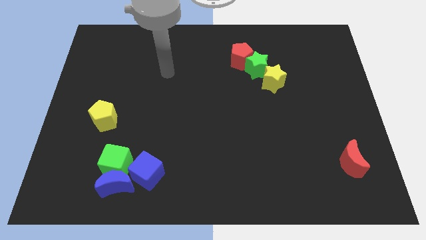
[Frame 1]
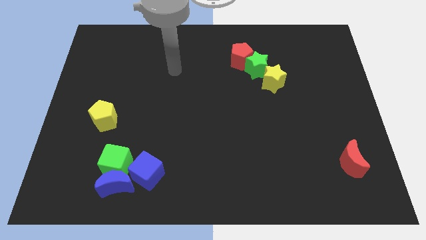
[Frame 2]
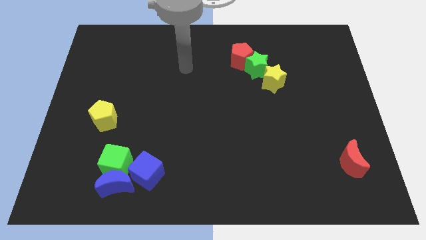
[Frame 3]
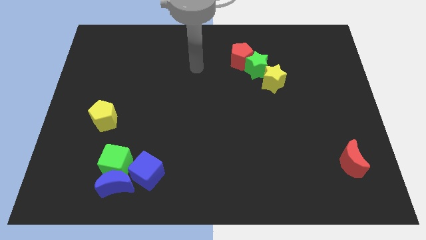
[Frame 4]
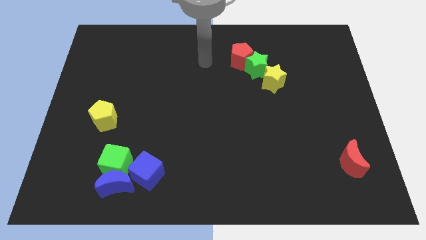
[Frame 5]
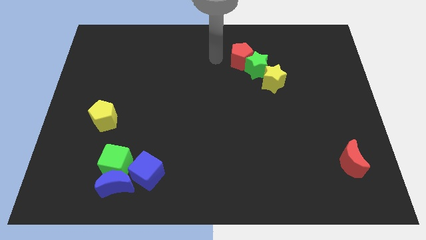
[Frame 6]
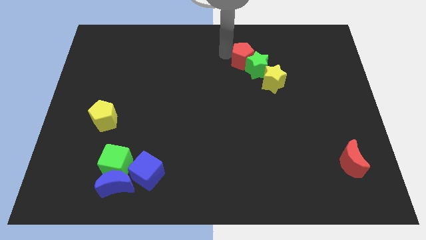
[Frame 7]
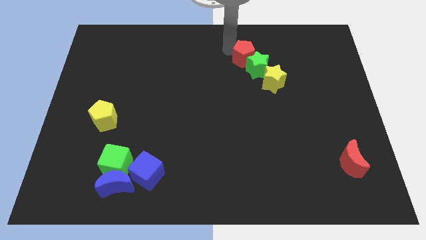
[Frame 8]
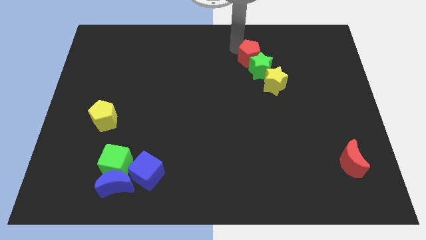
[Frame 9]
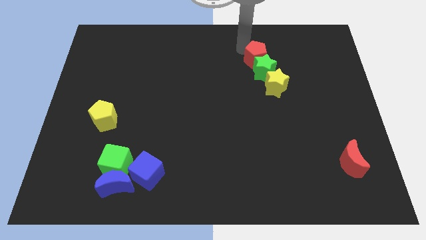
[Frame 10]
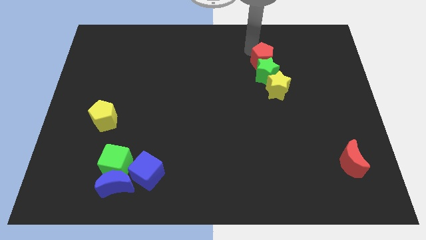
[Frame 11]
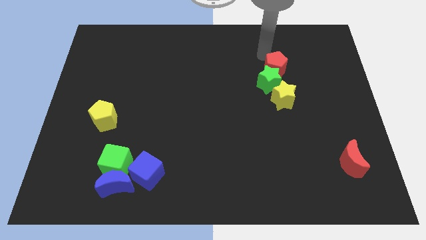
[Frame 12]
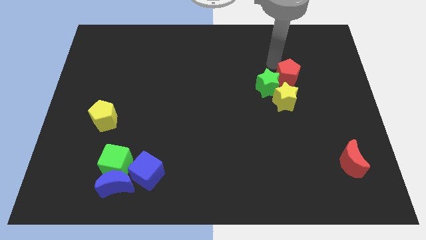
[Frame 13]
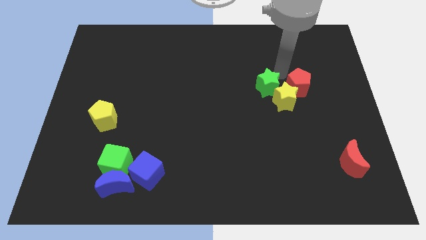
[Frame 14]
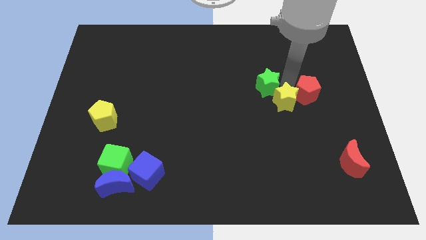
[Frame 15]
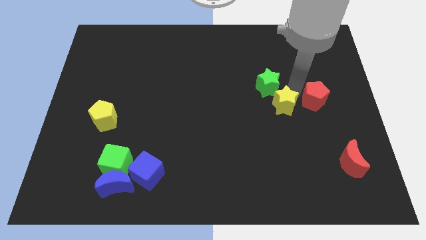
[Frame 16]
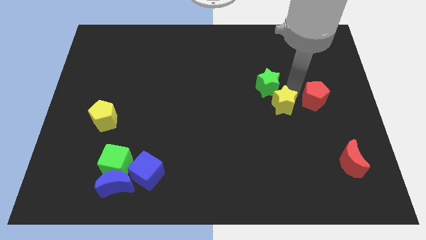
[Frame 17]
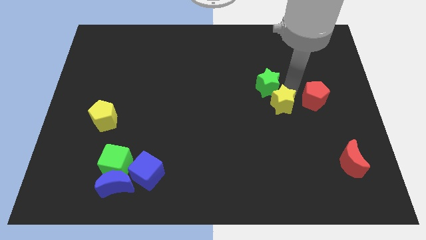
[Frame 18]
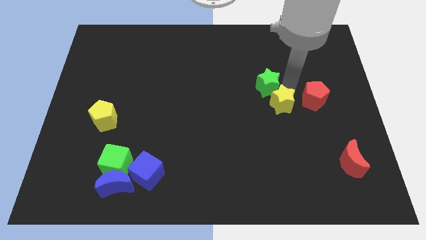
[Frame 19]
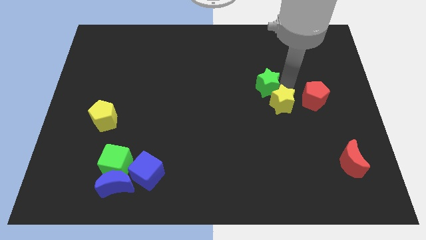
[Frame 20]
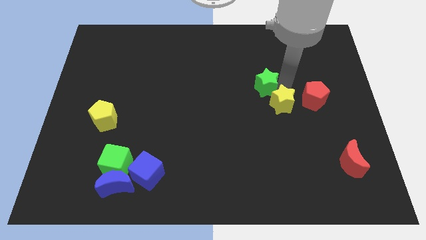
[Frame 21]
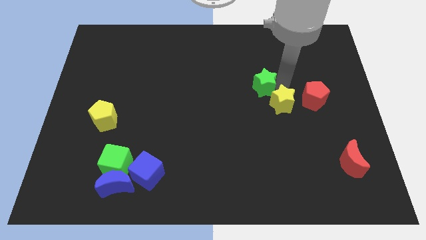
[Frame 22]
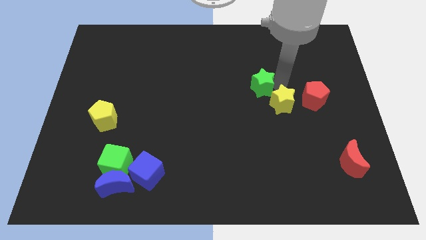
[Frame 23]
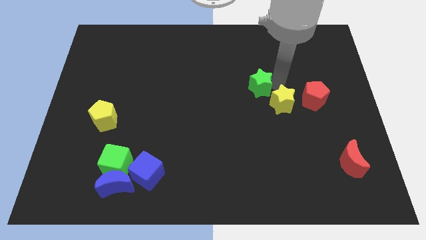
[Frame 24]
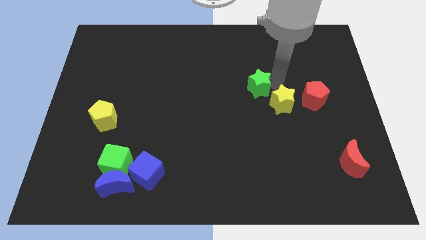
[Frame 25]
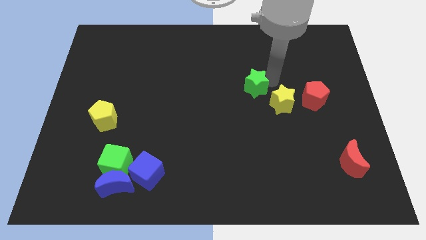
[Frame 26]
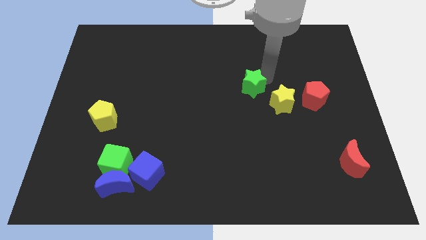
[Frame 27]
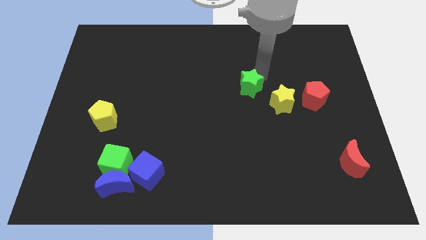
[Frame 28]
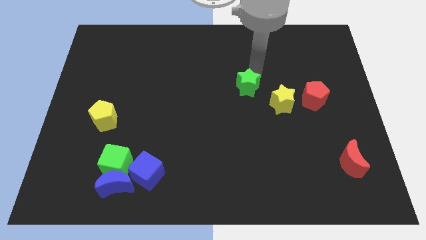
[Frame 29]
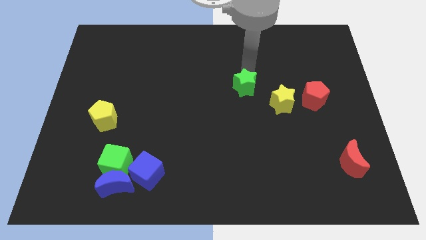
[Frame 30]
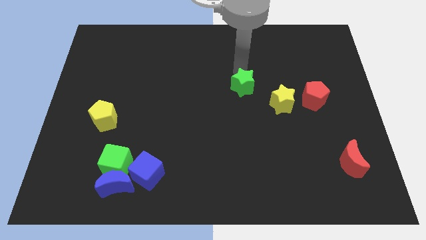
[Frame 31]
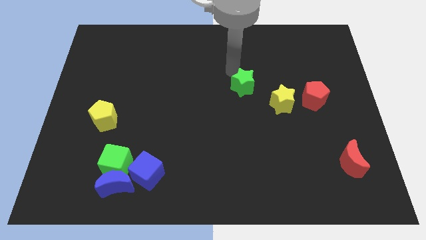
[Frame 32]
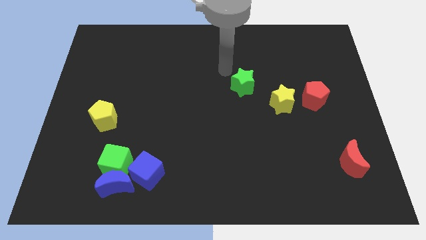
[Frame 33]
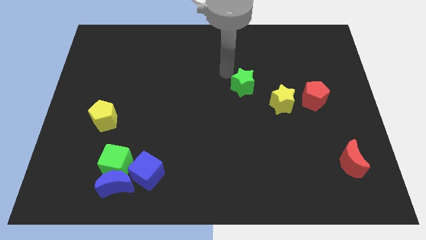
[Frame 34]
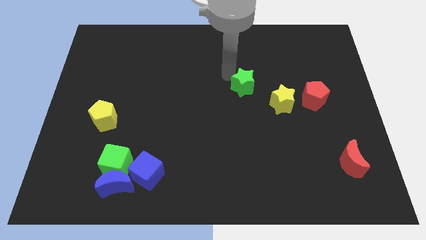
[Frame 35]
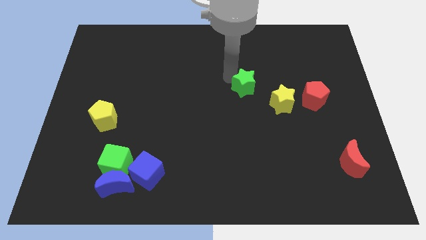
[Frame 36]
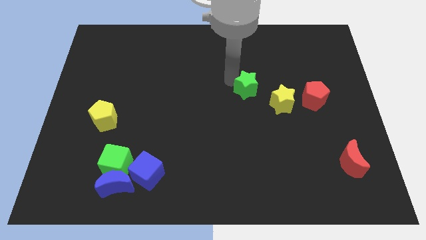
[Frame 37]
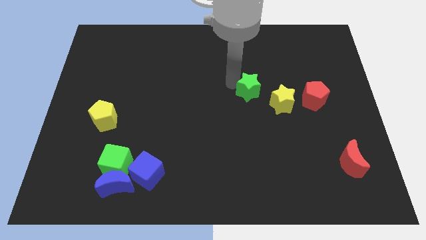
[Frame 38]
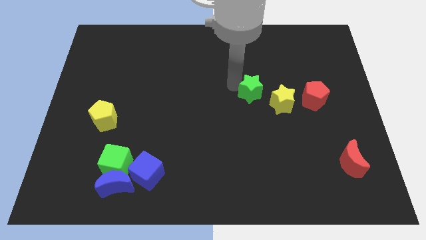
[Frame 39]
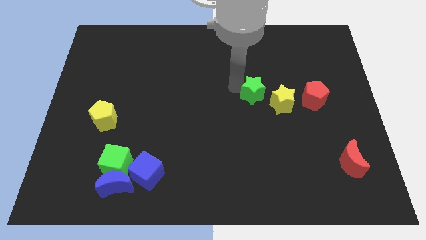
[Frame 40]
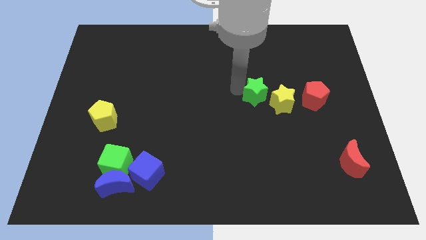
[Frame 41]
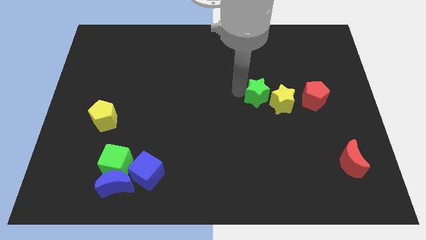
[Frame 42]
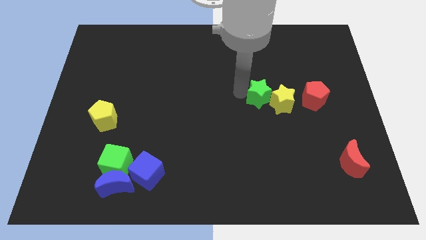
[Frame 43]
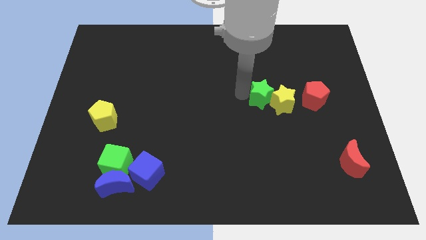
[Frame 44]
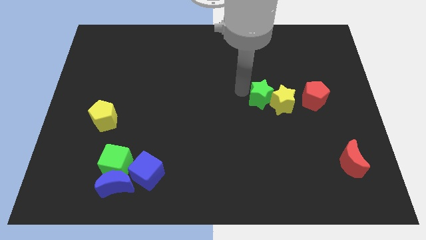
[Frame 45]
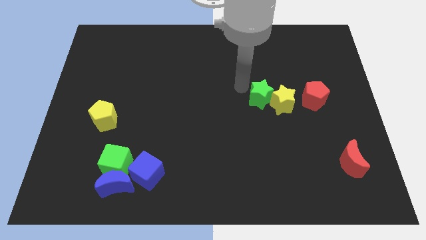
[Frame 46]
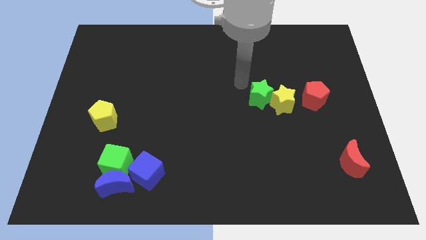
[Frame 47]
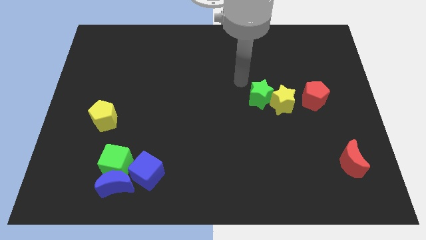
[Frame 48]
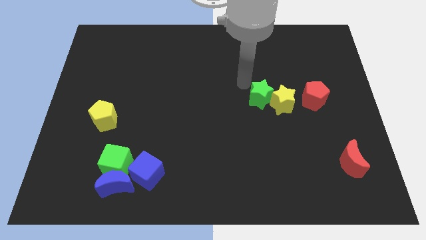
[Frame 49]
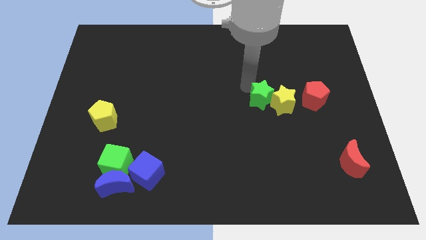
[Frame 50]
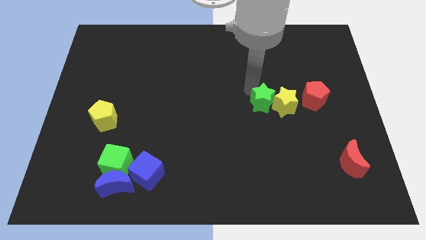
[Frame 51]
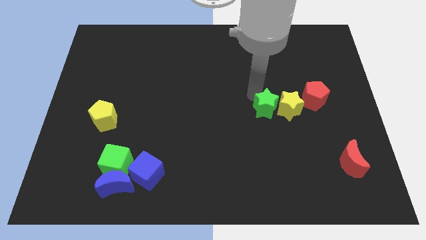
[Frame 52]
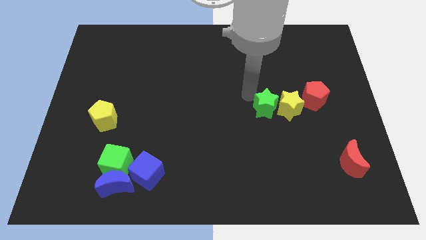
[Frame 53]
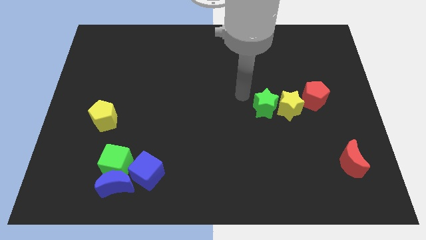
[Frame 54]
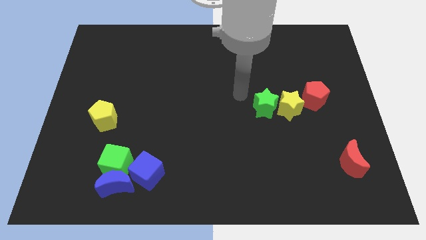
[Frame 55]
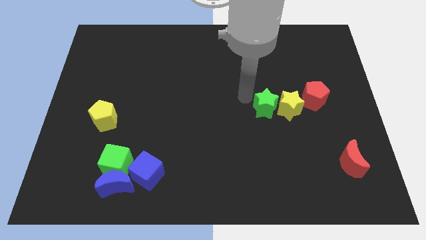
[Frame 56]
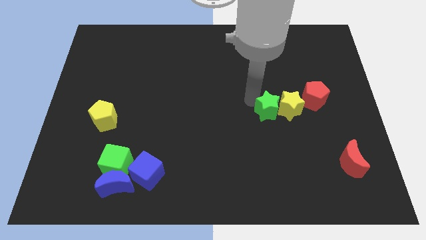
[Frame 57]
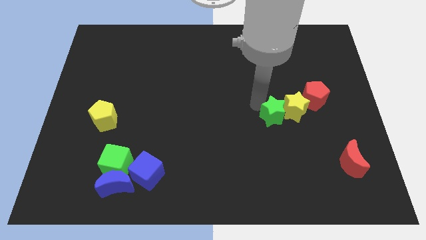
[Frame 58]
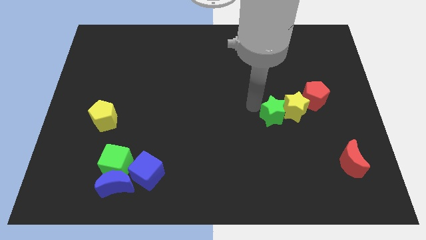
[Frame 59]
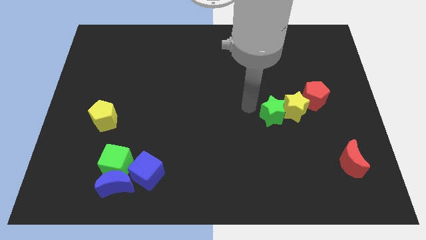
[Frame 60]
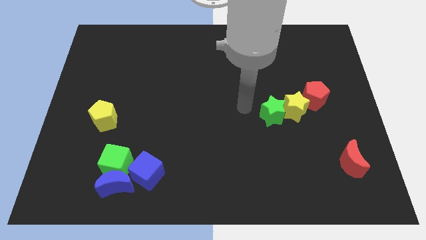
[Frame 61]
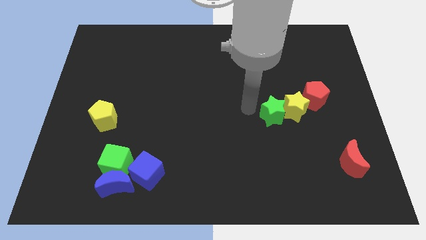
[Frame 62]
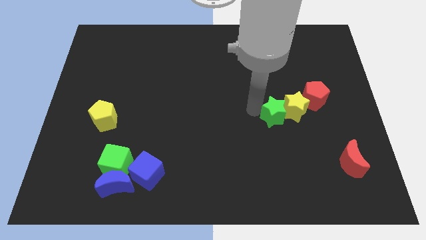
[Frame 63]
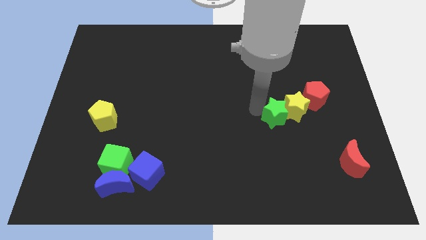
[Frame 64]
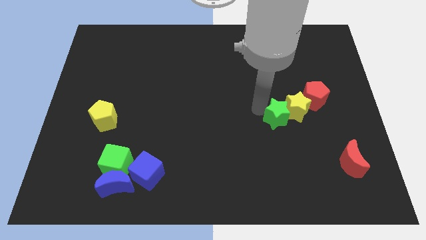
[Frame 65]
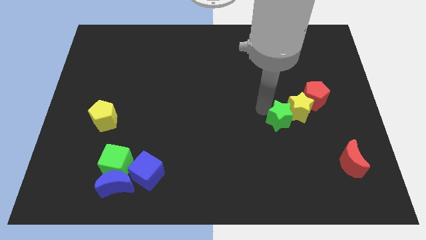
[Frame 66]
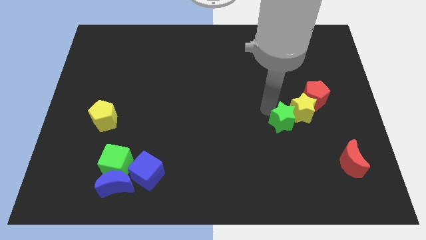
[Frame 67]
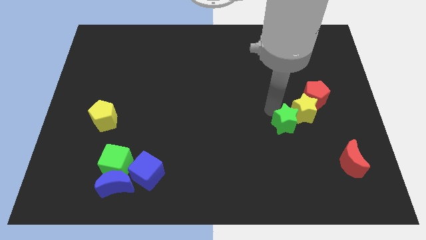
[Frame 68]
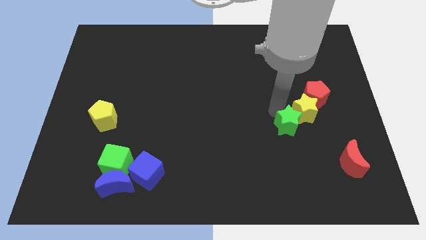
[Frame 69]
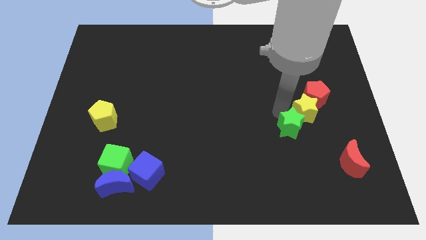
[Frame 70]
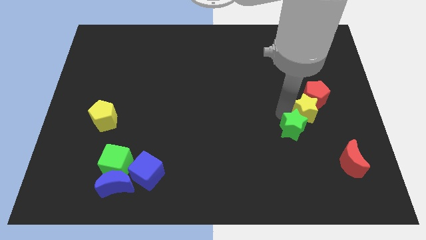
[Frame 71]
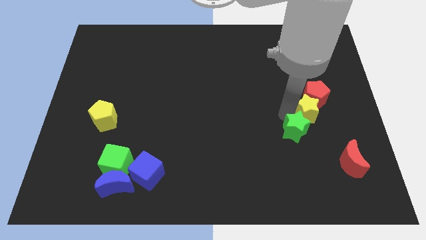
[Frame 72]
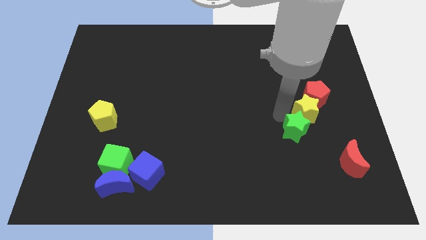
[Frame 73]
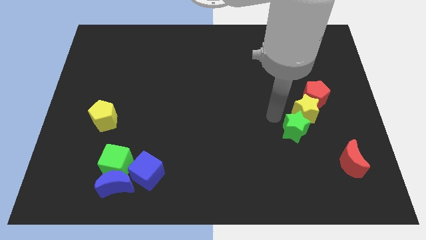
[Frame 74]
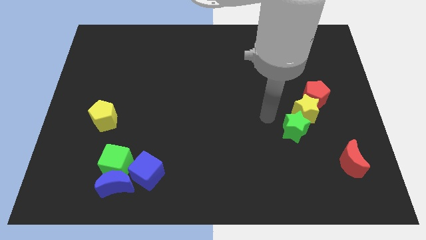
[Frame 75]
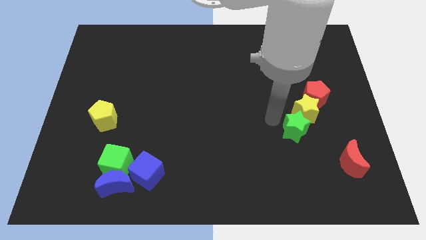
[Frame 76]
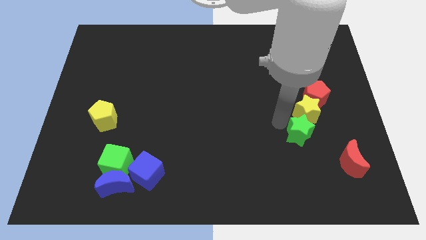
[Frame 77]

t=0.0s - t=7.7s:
slide the green star to the top left of the red moon

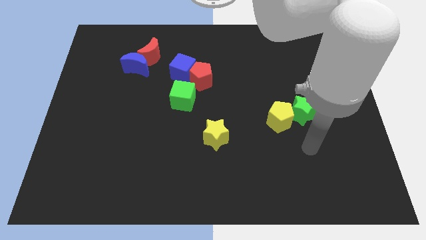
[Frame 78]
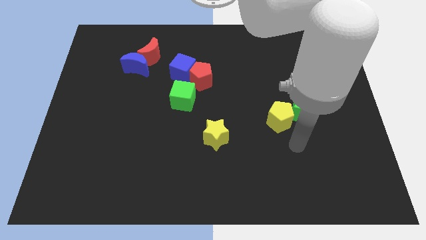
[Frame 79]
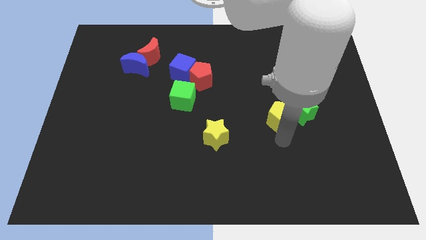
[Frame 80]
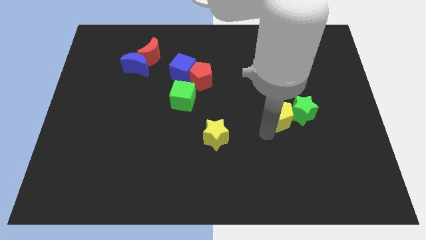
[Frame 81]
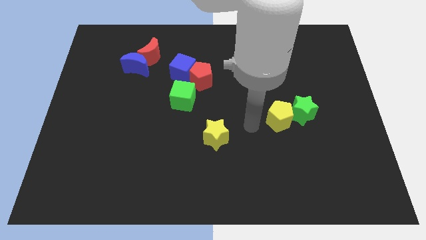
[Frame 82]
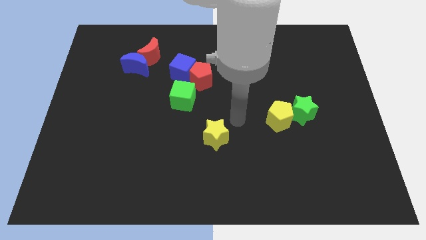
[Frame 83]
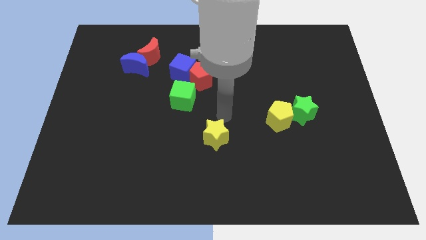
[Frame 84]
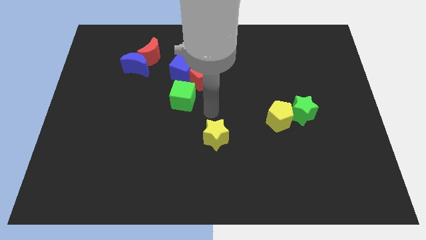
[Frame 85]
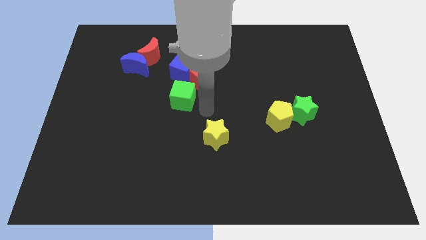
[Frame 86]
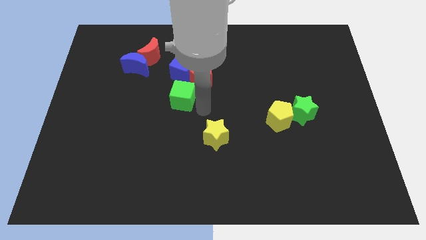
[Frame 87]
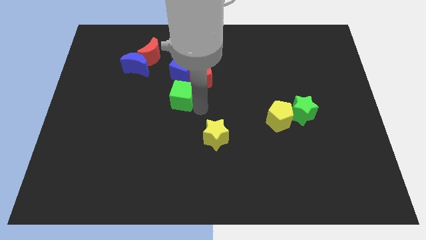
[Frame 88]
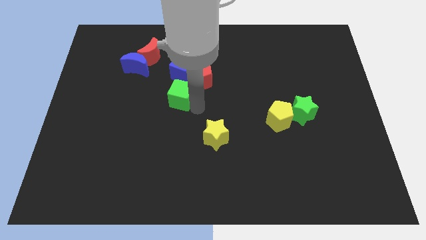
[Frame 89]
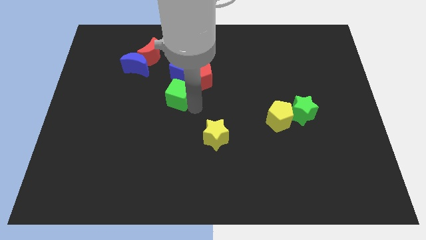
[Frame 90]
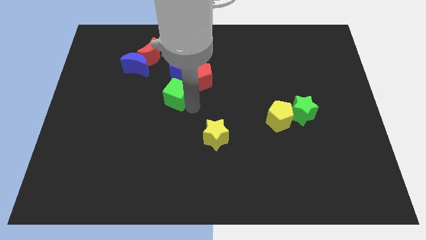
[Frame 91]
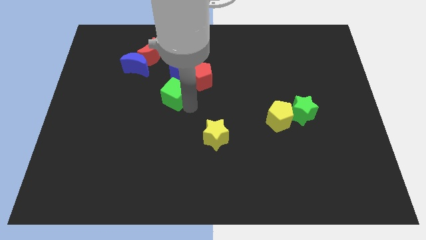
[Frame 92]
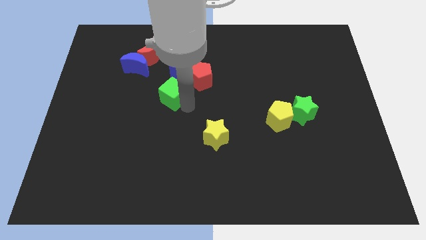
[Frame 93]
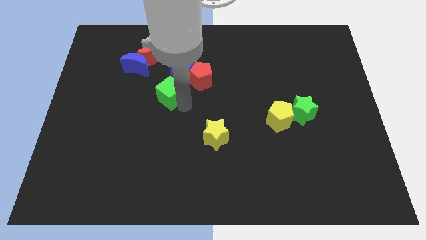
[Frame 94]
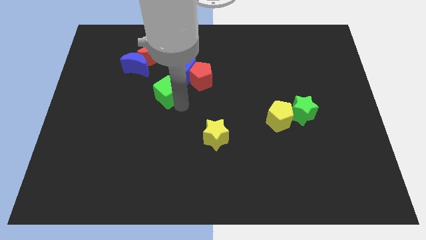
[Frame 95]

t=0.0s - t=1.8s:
move the green cube to the bottom right side of the blue moon
